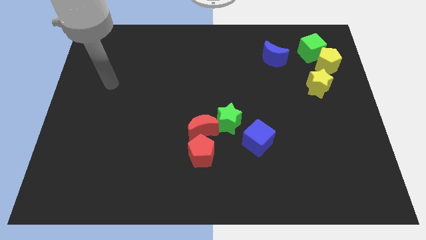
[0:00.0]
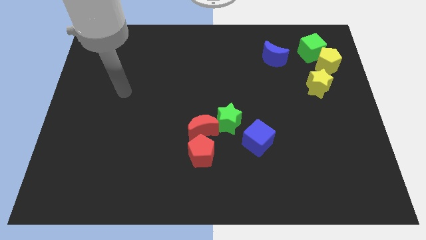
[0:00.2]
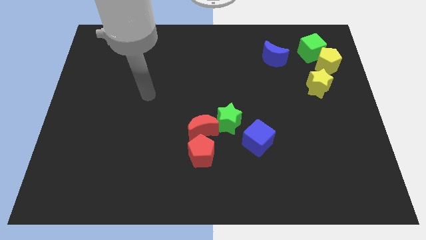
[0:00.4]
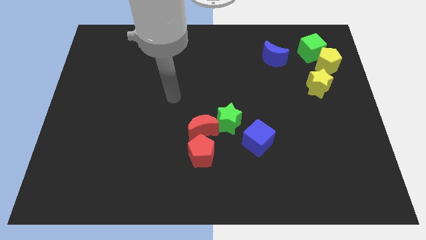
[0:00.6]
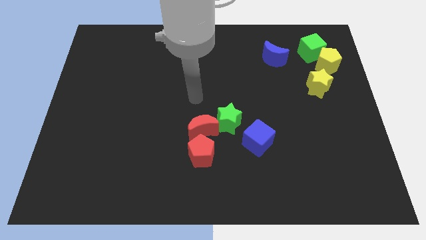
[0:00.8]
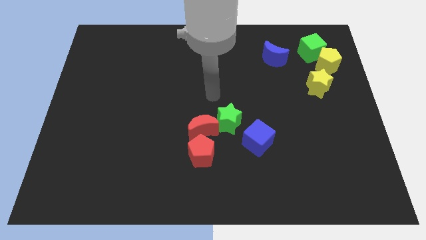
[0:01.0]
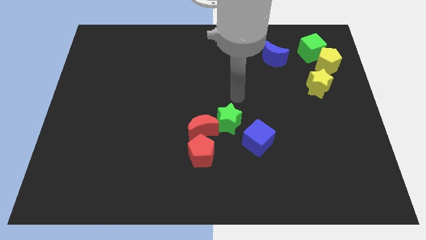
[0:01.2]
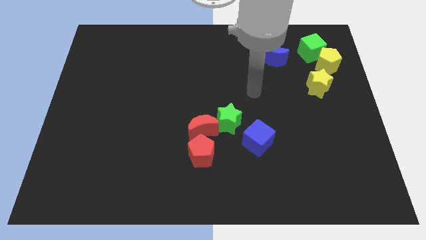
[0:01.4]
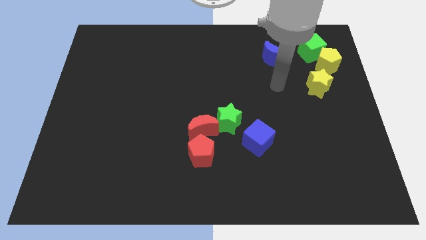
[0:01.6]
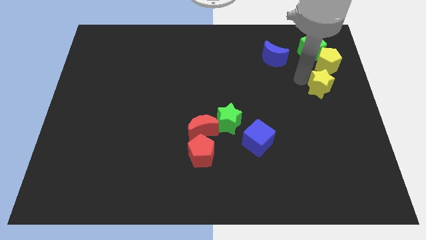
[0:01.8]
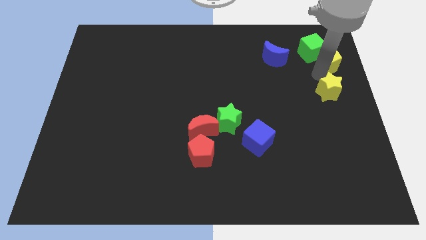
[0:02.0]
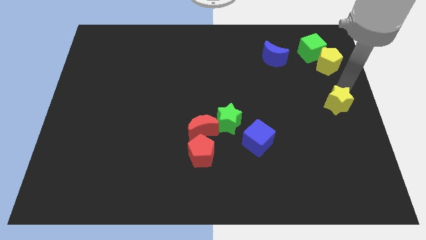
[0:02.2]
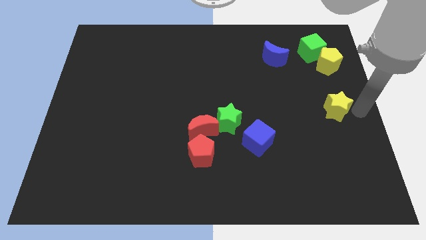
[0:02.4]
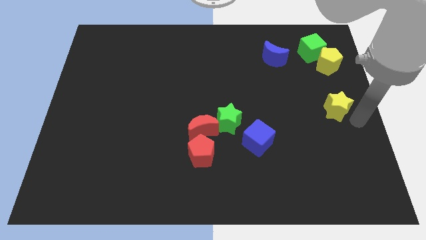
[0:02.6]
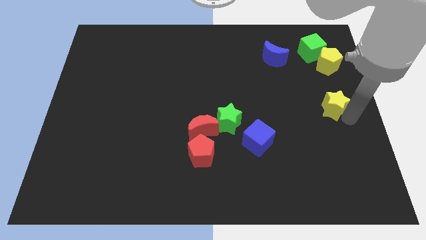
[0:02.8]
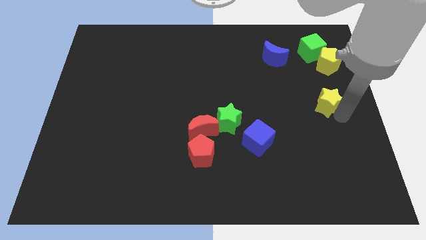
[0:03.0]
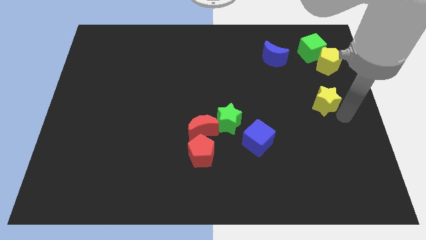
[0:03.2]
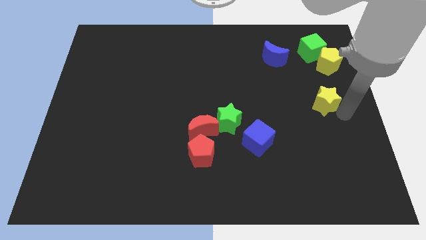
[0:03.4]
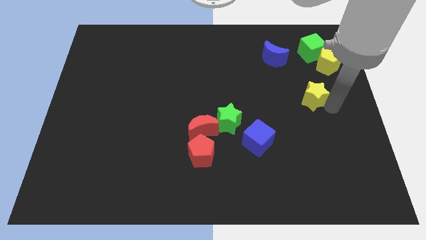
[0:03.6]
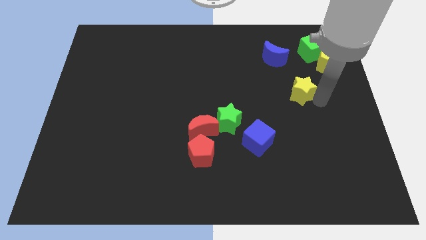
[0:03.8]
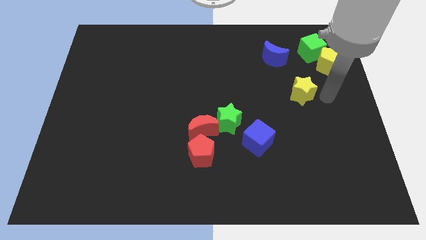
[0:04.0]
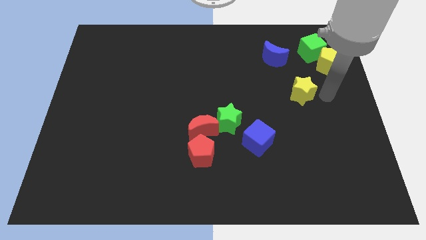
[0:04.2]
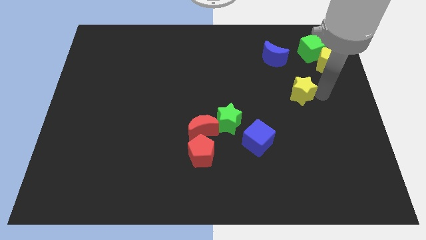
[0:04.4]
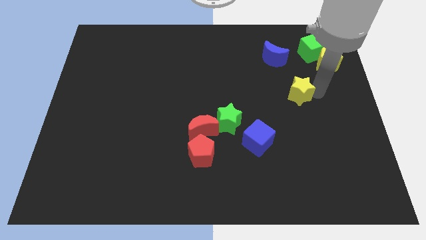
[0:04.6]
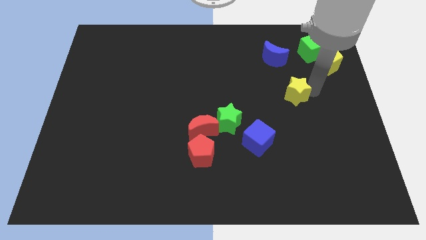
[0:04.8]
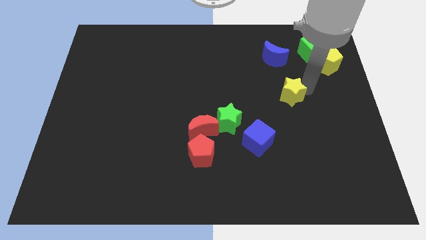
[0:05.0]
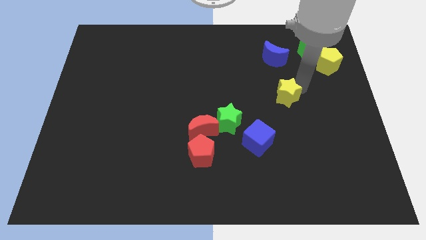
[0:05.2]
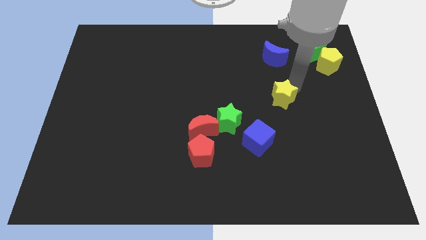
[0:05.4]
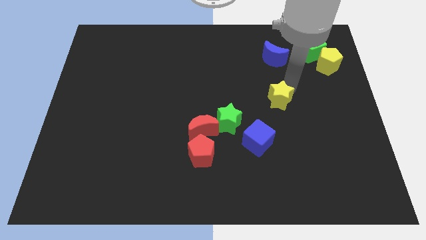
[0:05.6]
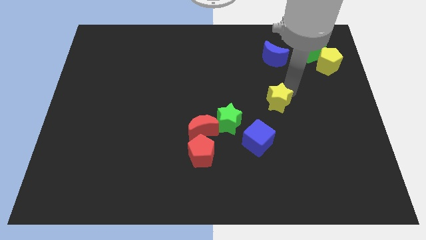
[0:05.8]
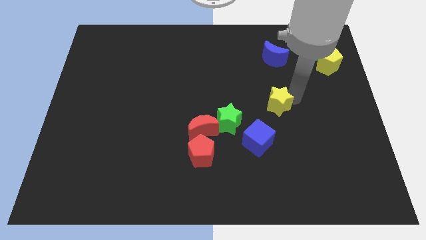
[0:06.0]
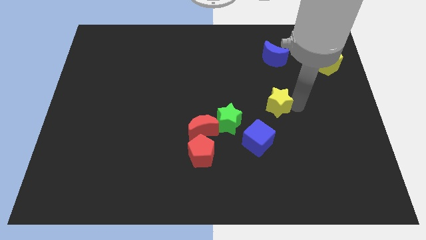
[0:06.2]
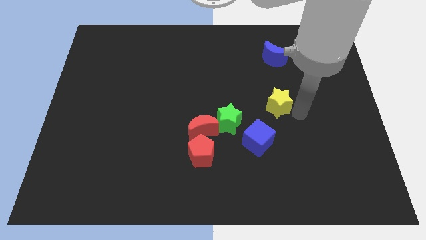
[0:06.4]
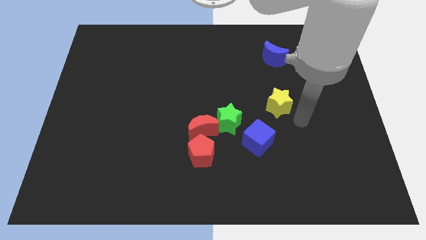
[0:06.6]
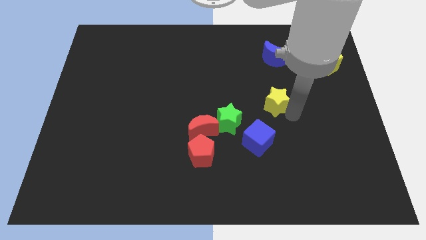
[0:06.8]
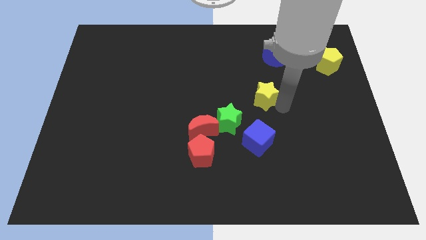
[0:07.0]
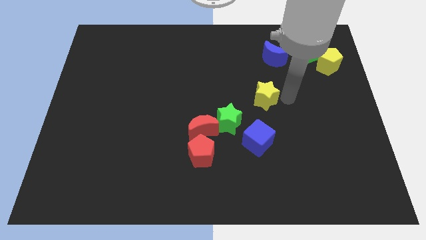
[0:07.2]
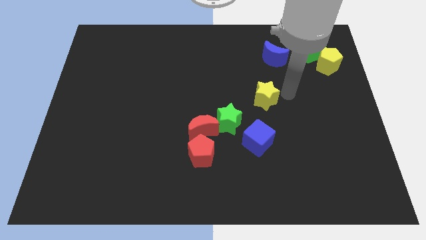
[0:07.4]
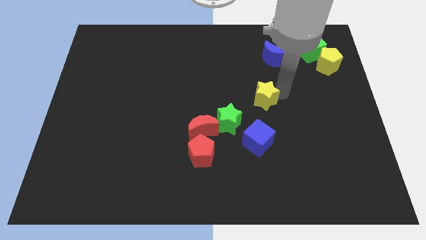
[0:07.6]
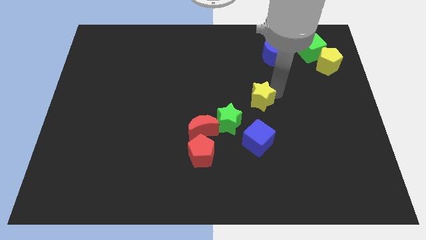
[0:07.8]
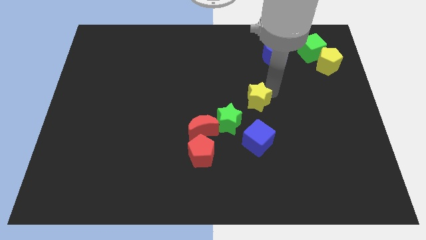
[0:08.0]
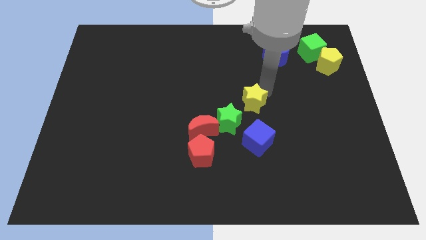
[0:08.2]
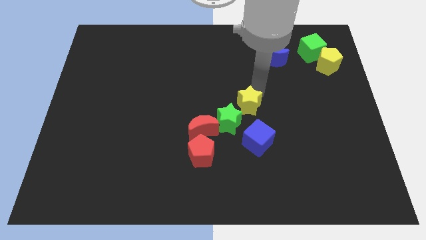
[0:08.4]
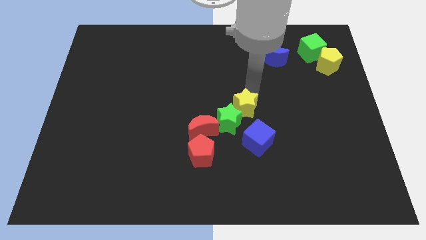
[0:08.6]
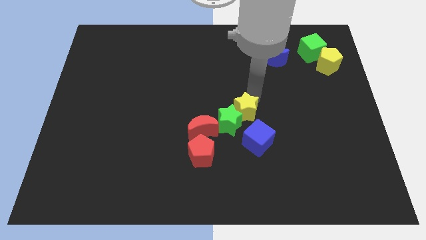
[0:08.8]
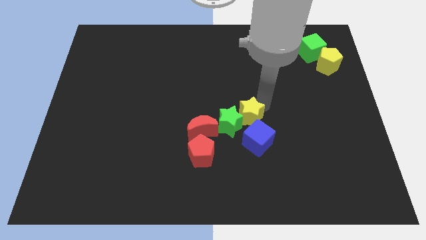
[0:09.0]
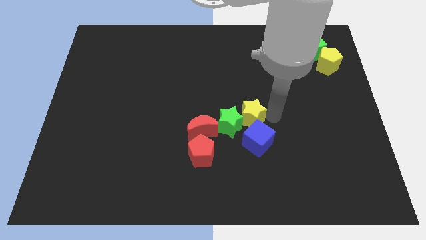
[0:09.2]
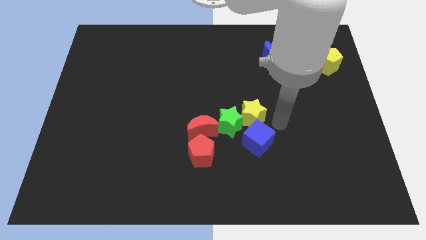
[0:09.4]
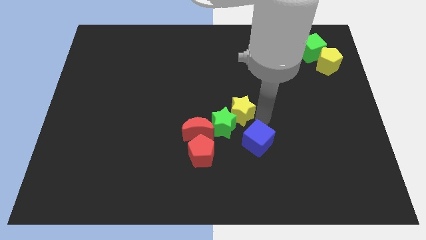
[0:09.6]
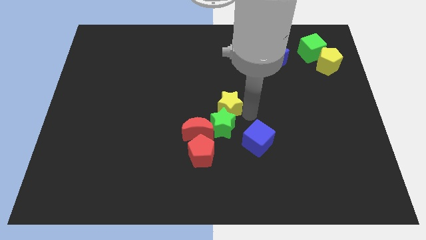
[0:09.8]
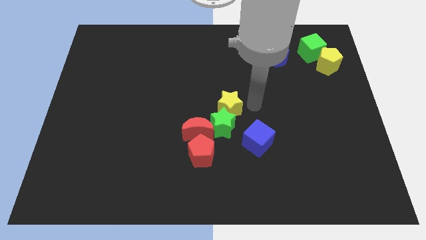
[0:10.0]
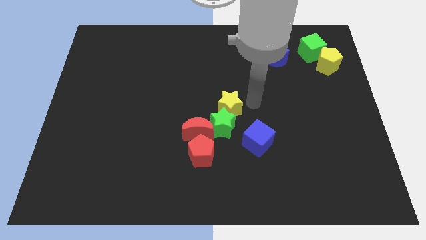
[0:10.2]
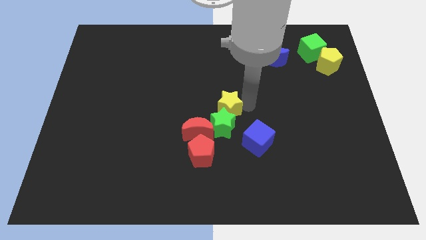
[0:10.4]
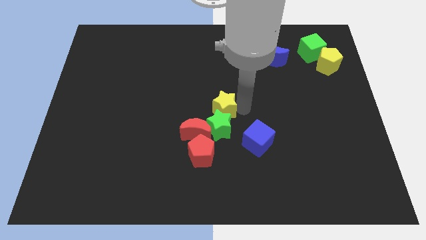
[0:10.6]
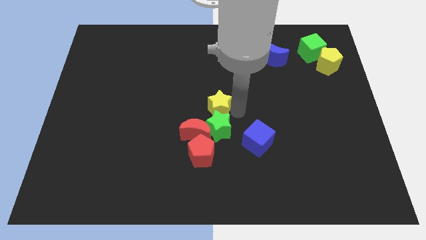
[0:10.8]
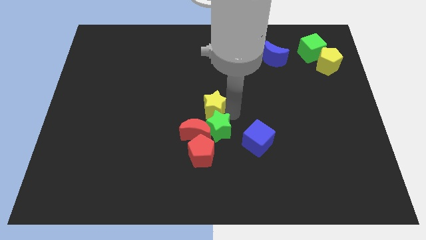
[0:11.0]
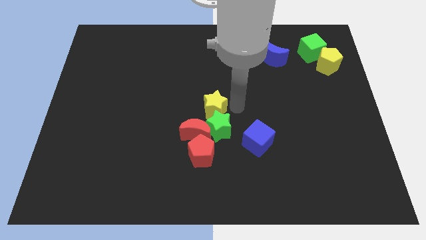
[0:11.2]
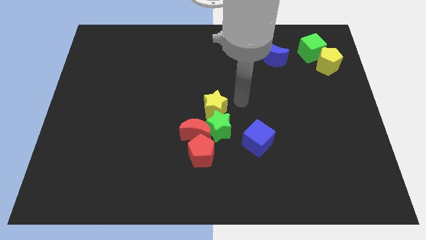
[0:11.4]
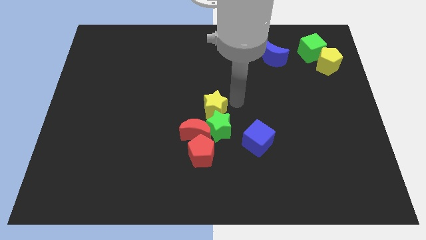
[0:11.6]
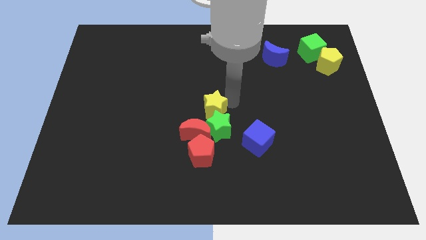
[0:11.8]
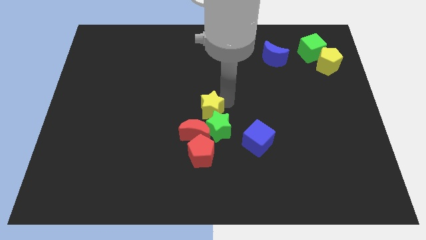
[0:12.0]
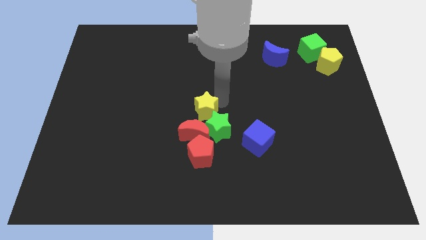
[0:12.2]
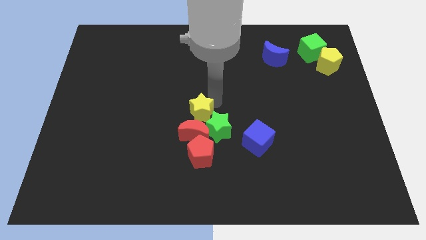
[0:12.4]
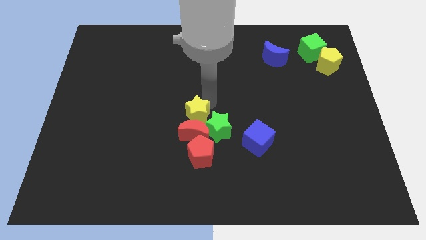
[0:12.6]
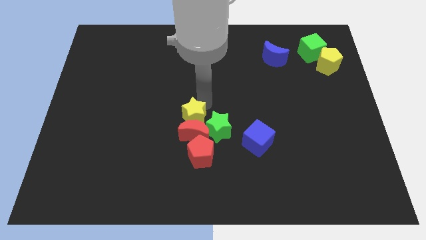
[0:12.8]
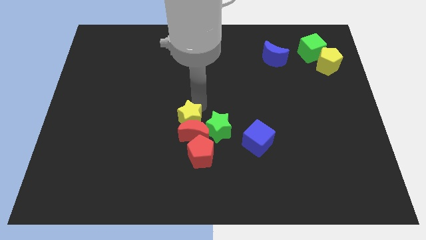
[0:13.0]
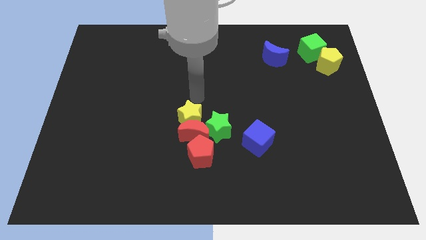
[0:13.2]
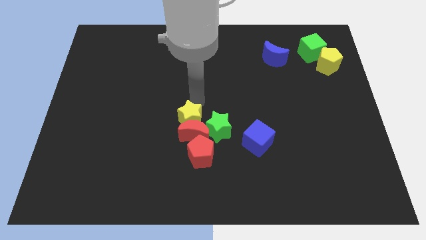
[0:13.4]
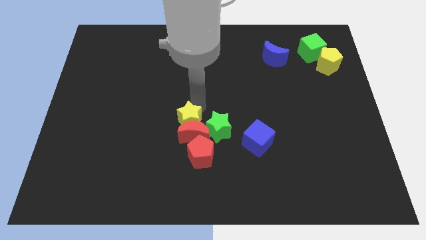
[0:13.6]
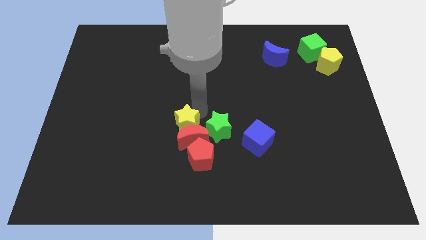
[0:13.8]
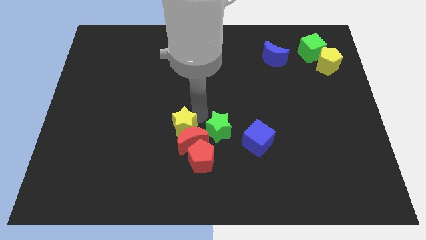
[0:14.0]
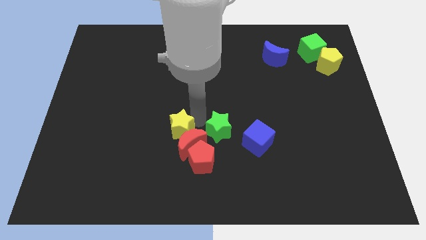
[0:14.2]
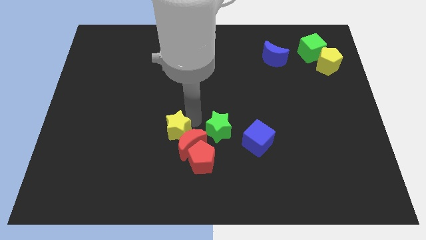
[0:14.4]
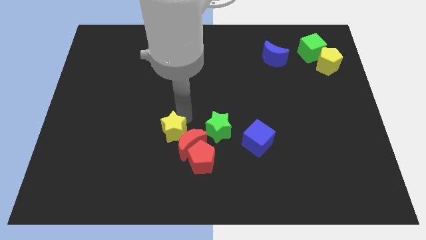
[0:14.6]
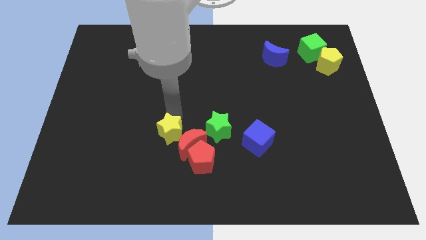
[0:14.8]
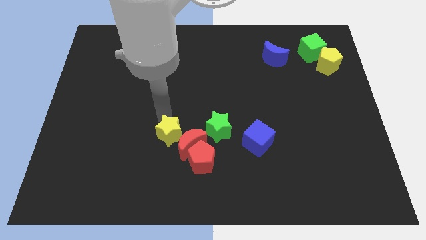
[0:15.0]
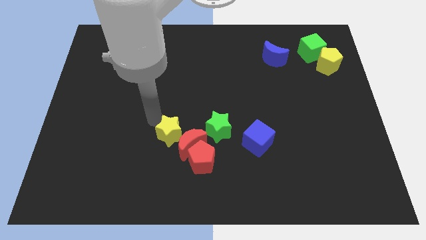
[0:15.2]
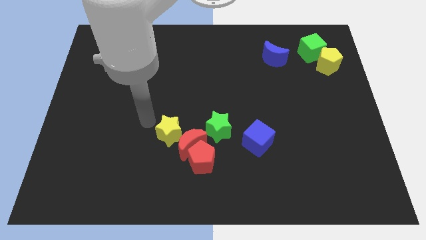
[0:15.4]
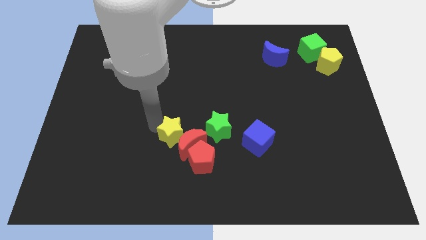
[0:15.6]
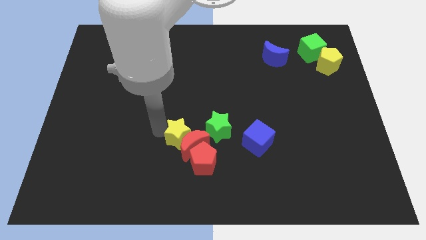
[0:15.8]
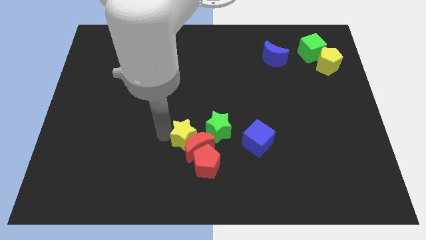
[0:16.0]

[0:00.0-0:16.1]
move the yellow star to the left side of the blue cube

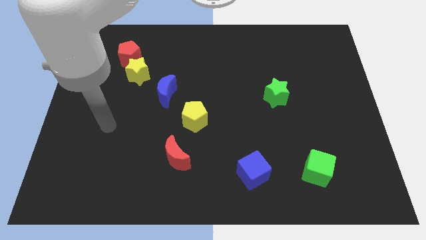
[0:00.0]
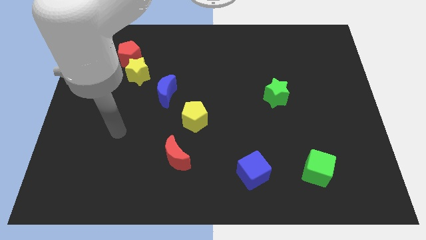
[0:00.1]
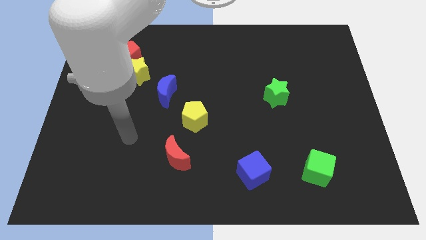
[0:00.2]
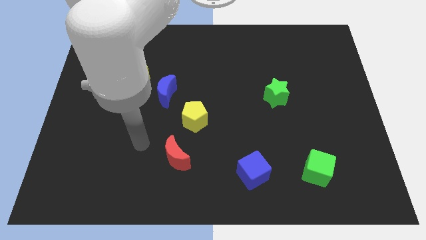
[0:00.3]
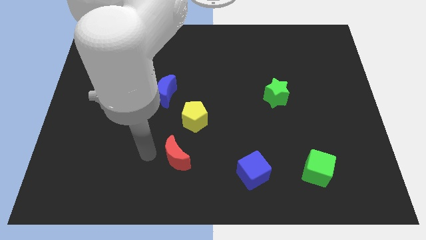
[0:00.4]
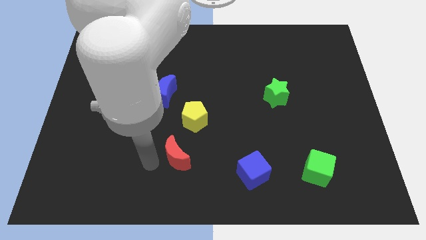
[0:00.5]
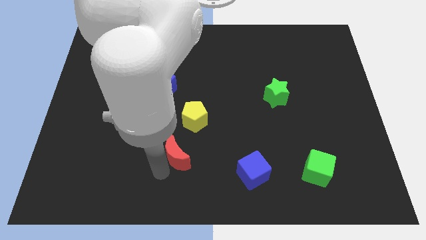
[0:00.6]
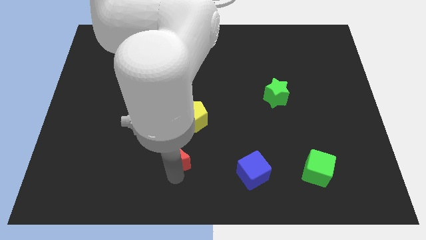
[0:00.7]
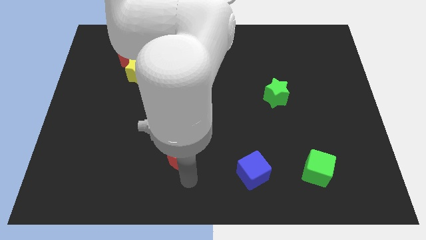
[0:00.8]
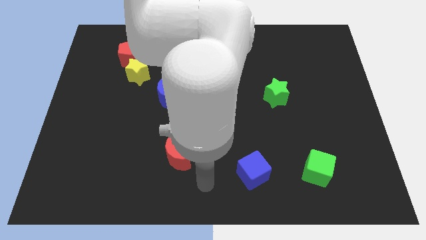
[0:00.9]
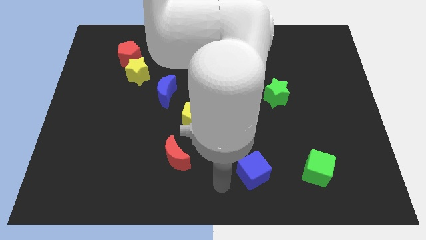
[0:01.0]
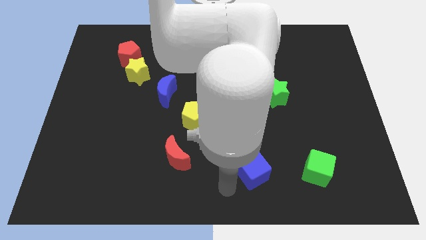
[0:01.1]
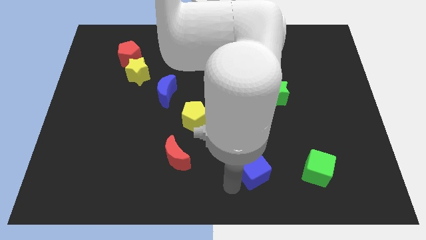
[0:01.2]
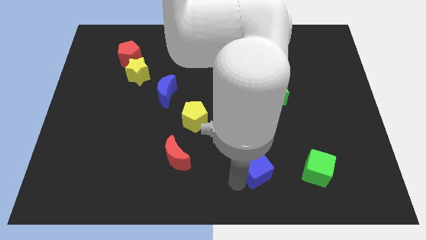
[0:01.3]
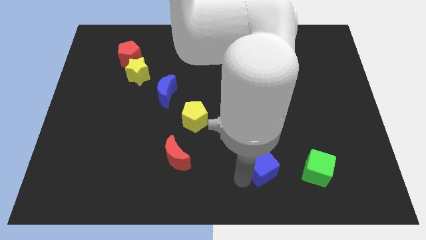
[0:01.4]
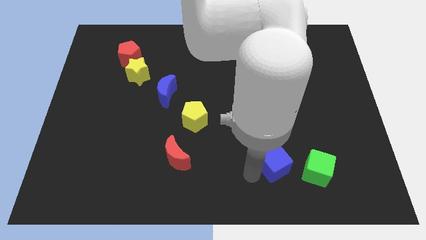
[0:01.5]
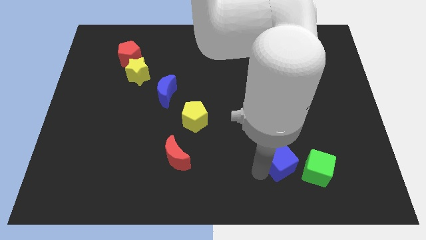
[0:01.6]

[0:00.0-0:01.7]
slide the blue cube to the top left of the green cube
